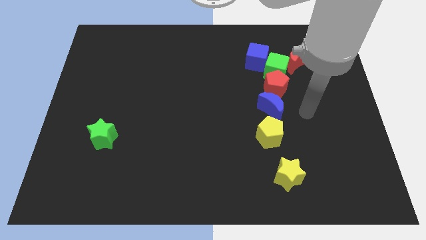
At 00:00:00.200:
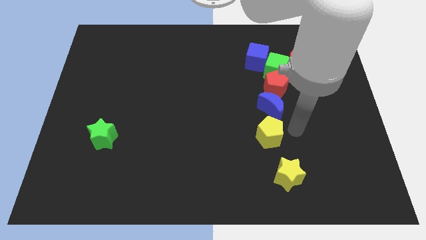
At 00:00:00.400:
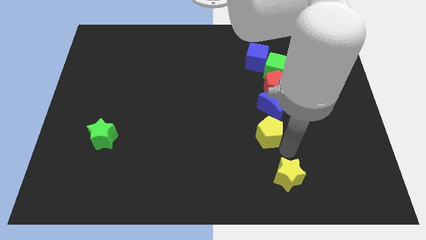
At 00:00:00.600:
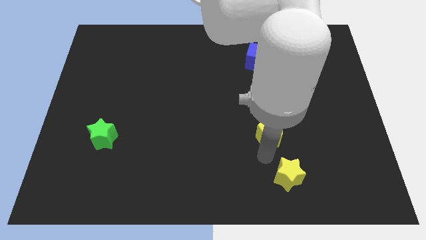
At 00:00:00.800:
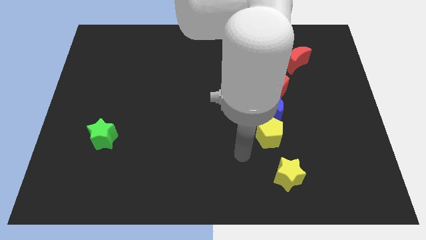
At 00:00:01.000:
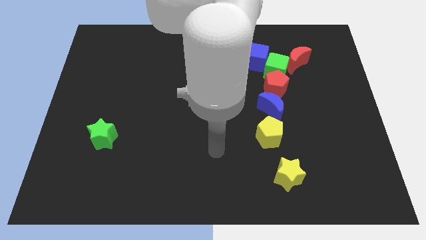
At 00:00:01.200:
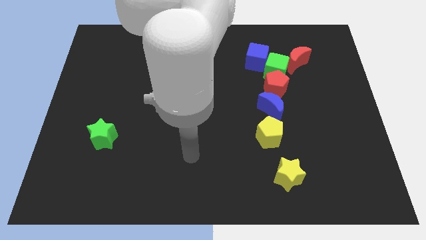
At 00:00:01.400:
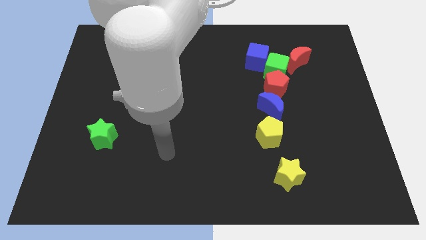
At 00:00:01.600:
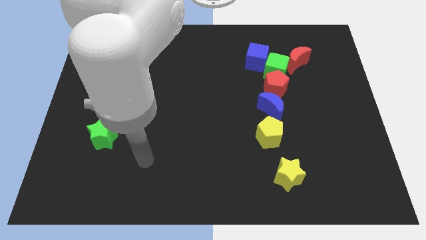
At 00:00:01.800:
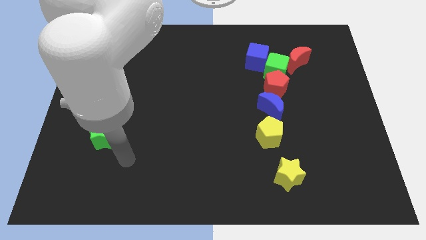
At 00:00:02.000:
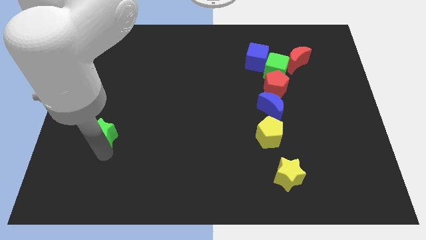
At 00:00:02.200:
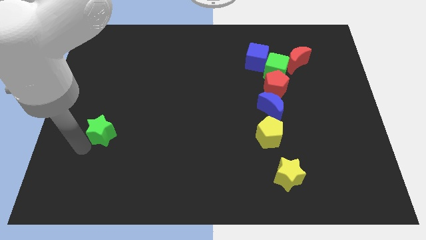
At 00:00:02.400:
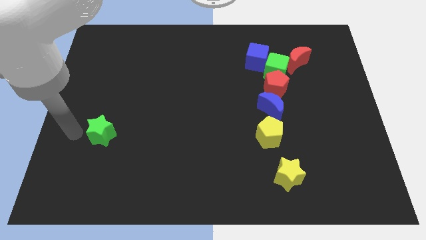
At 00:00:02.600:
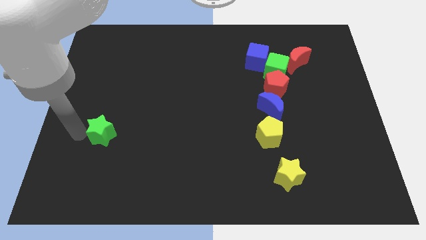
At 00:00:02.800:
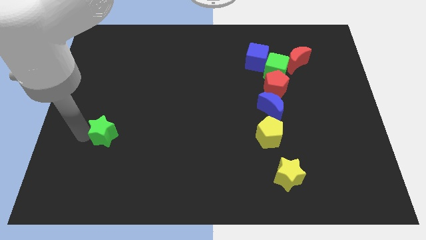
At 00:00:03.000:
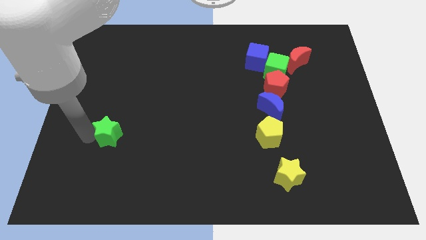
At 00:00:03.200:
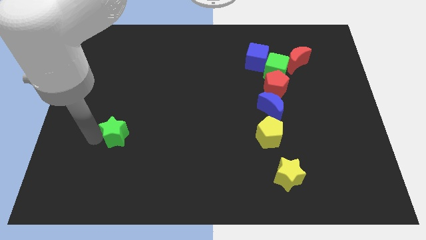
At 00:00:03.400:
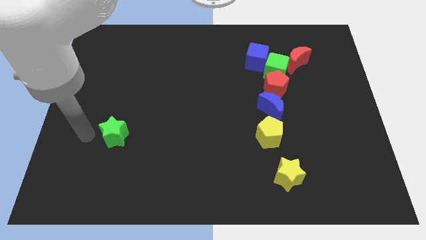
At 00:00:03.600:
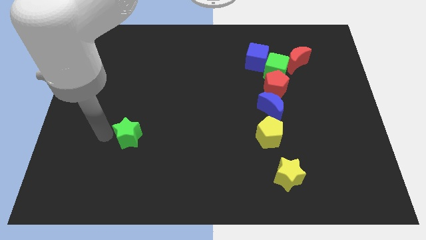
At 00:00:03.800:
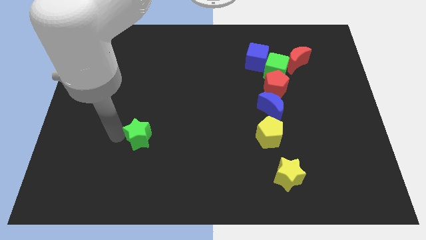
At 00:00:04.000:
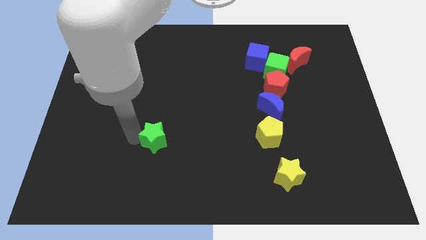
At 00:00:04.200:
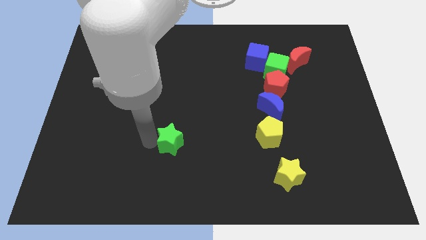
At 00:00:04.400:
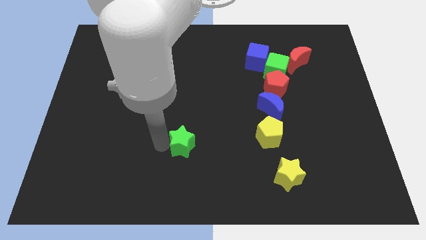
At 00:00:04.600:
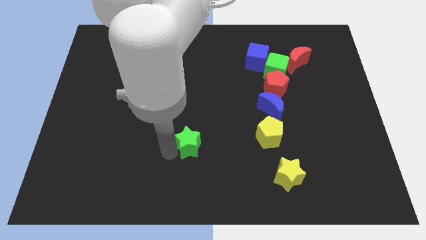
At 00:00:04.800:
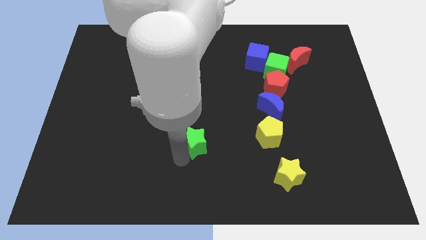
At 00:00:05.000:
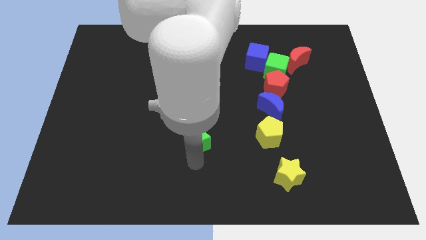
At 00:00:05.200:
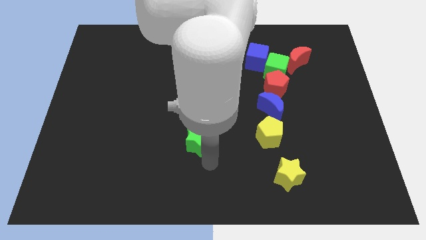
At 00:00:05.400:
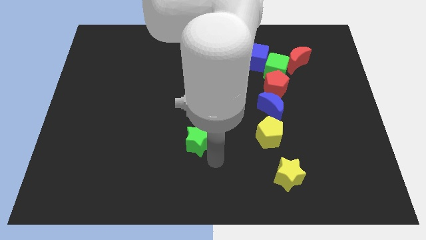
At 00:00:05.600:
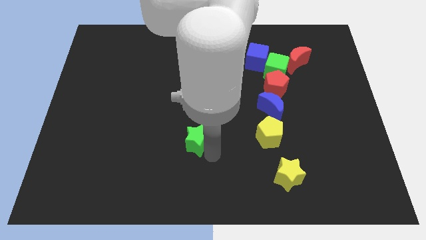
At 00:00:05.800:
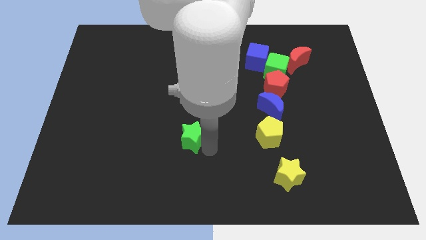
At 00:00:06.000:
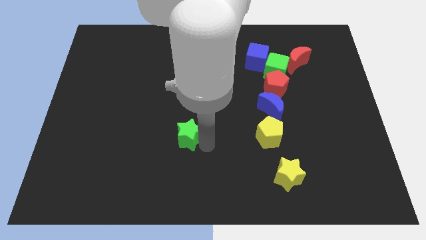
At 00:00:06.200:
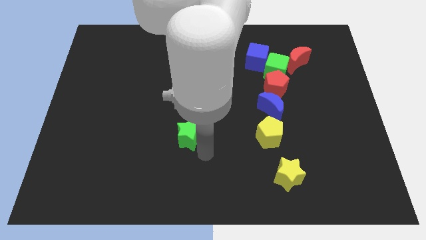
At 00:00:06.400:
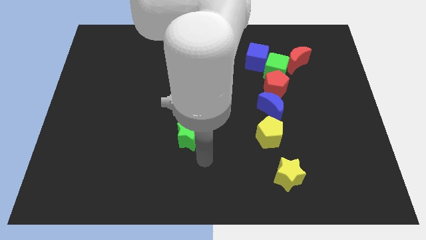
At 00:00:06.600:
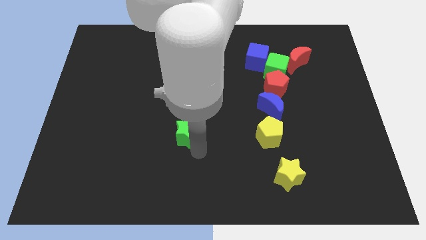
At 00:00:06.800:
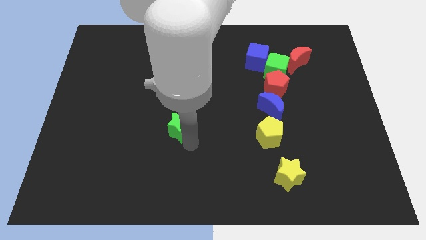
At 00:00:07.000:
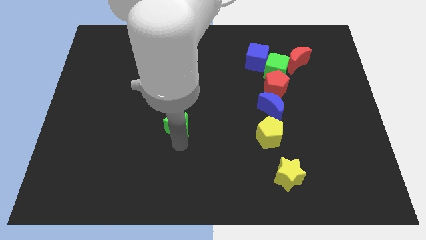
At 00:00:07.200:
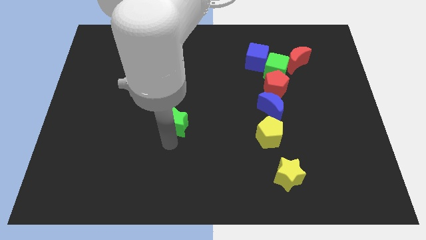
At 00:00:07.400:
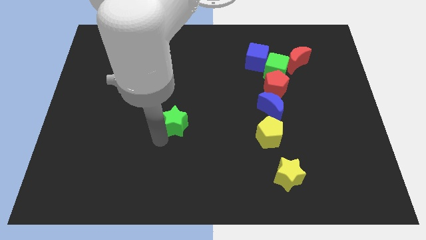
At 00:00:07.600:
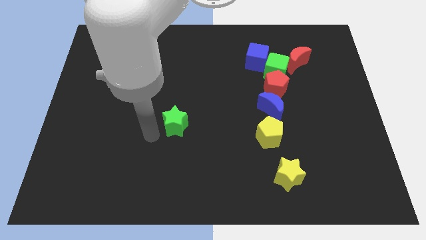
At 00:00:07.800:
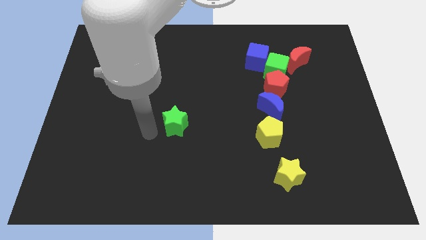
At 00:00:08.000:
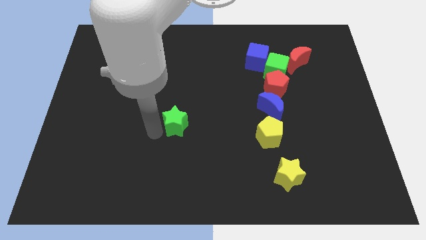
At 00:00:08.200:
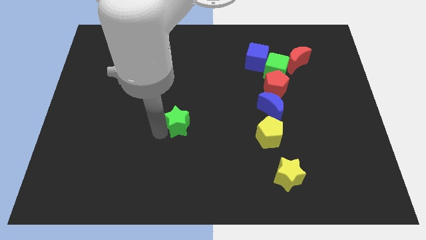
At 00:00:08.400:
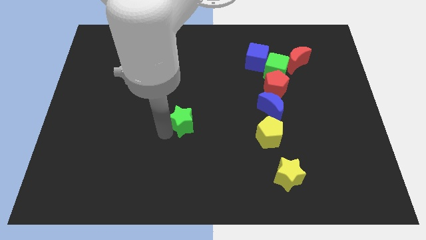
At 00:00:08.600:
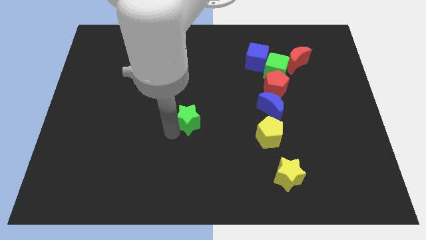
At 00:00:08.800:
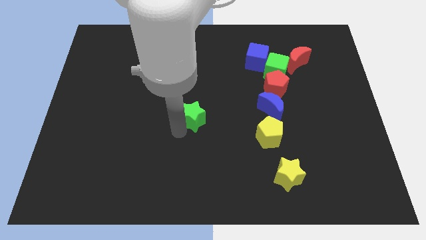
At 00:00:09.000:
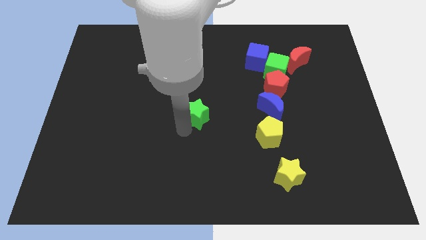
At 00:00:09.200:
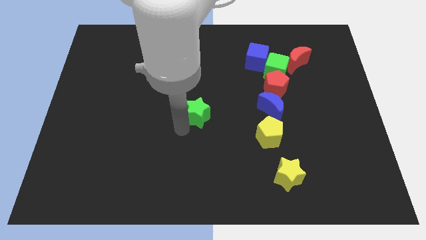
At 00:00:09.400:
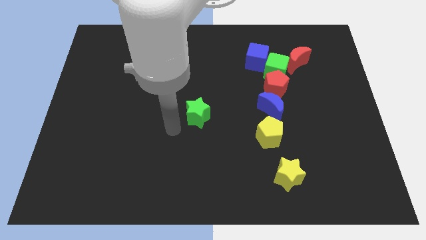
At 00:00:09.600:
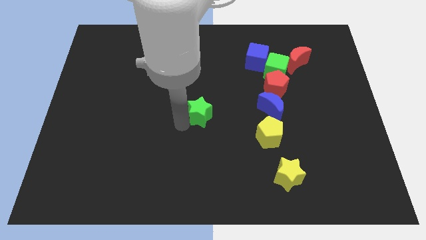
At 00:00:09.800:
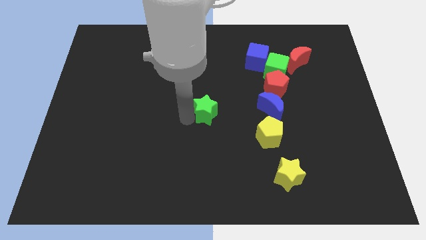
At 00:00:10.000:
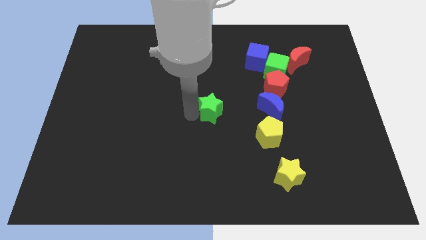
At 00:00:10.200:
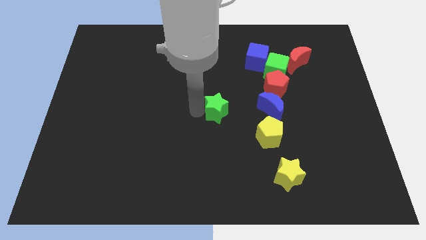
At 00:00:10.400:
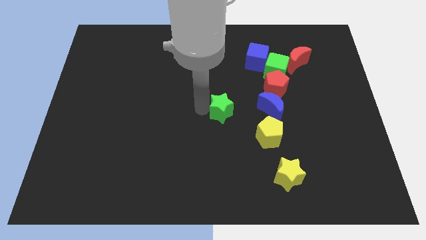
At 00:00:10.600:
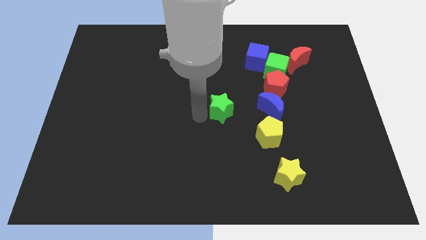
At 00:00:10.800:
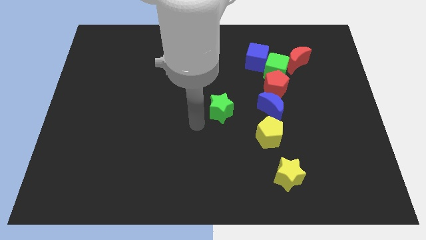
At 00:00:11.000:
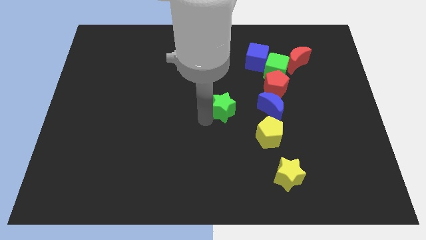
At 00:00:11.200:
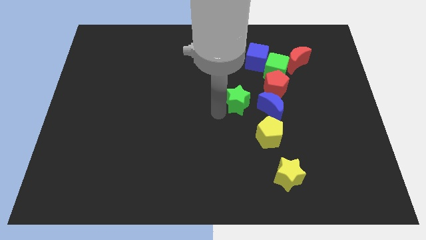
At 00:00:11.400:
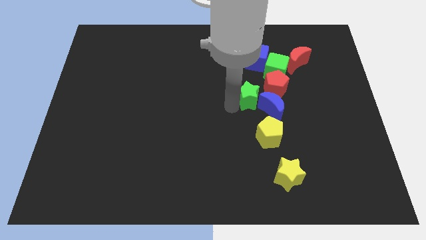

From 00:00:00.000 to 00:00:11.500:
push the green star to the bottom of the blue cube

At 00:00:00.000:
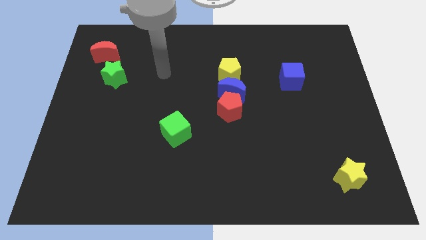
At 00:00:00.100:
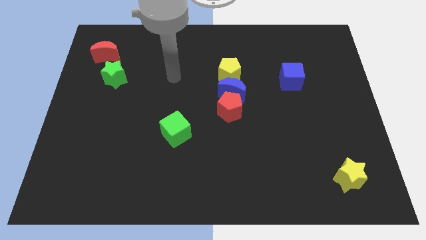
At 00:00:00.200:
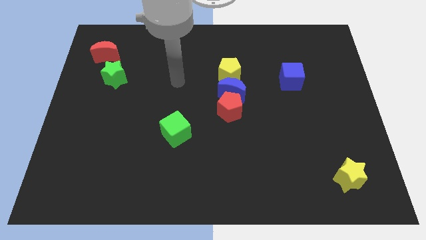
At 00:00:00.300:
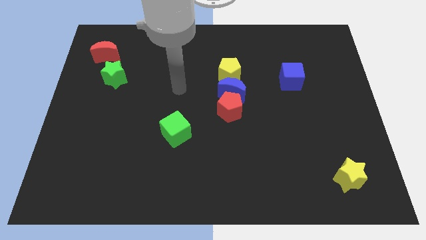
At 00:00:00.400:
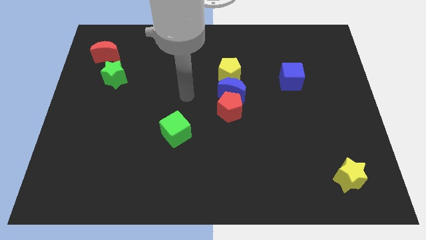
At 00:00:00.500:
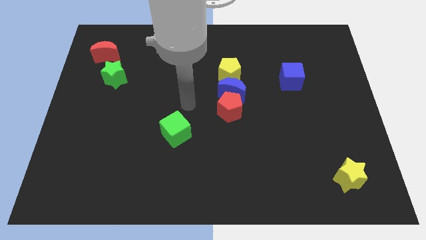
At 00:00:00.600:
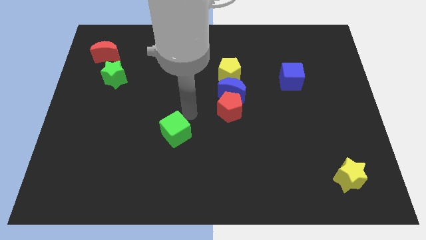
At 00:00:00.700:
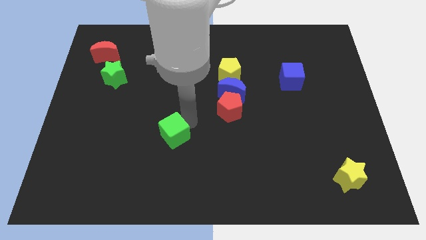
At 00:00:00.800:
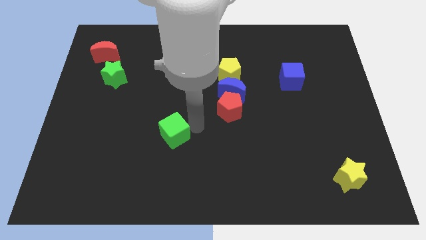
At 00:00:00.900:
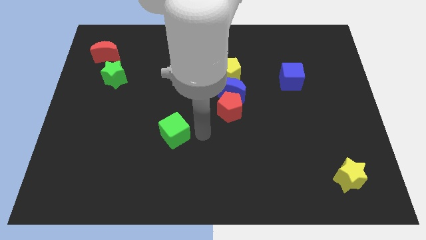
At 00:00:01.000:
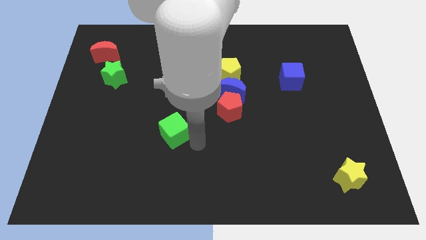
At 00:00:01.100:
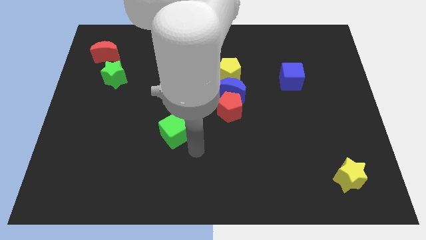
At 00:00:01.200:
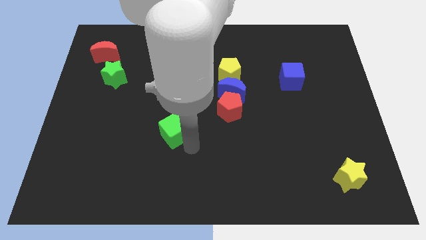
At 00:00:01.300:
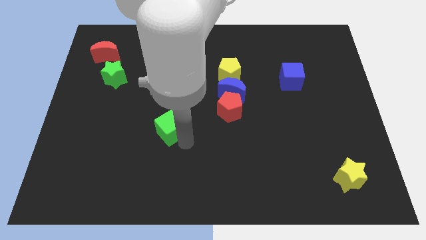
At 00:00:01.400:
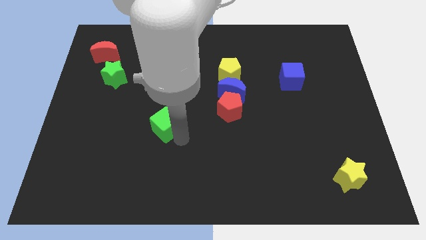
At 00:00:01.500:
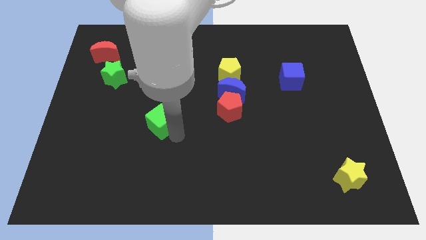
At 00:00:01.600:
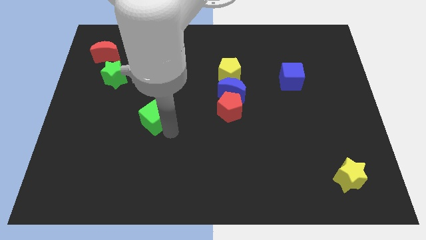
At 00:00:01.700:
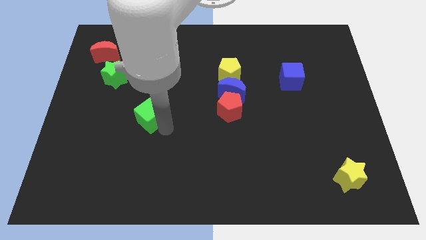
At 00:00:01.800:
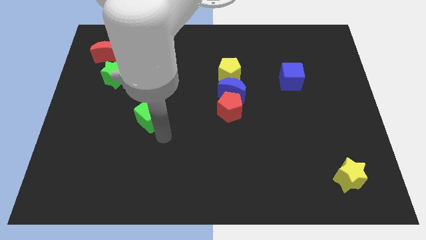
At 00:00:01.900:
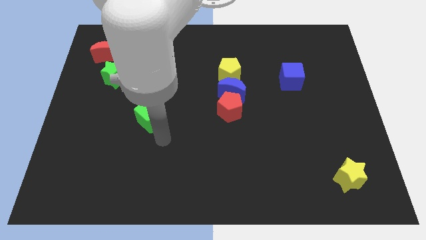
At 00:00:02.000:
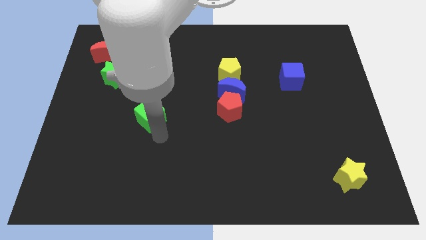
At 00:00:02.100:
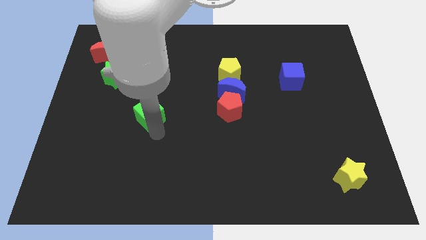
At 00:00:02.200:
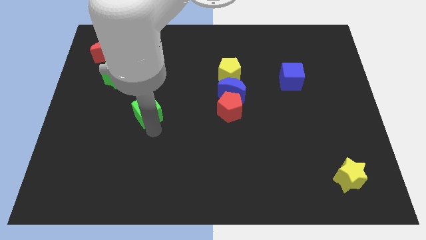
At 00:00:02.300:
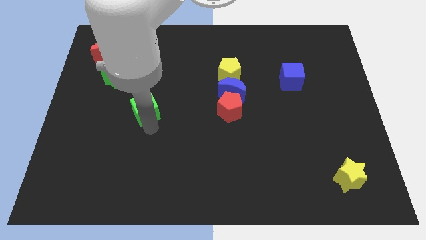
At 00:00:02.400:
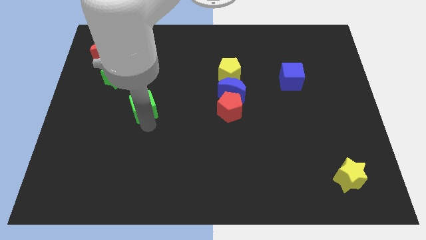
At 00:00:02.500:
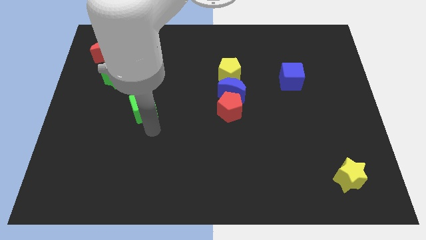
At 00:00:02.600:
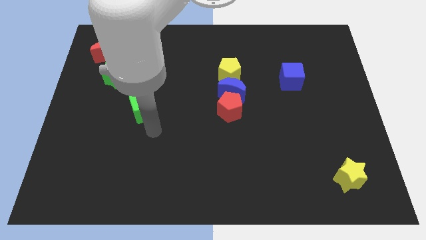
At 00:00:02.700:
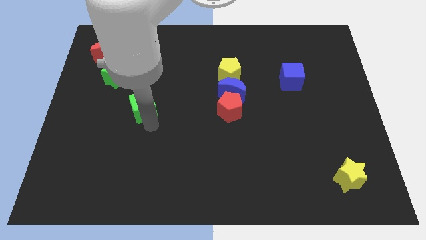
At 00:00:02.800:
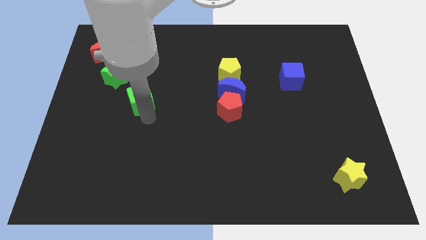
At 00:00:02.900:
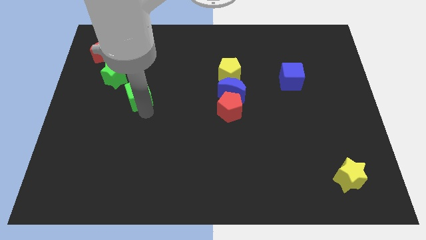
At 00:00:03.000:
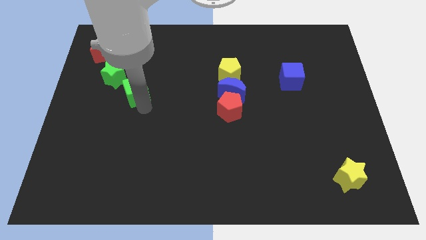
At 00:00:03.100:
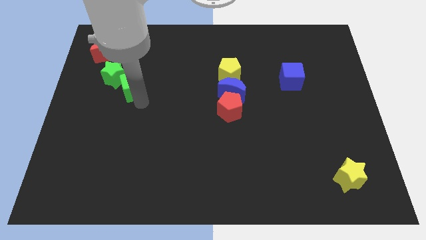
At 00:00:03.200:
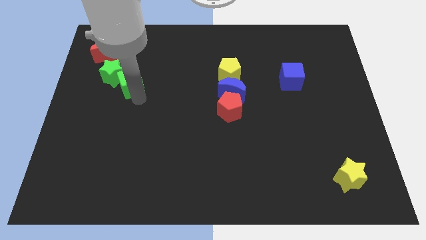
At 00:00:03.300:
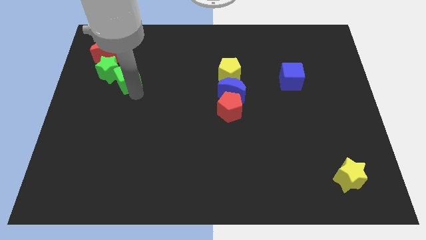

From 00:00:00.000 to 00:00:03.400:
slide the green cube to the bottom right of the red moon
